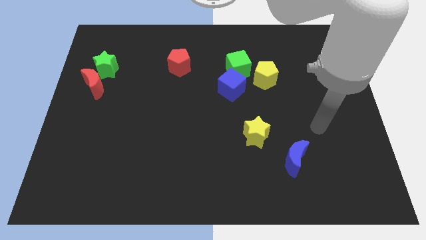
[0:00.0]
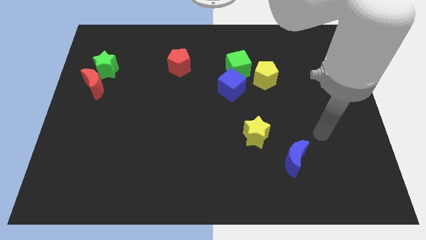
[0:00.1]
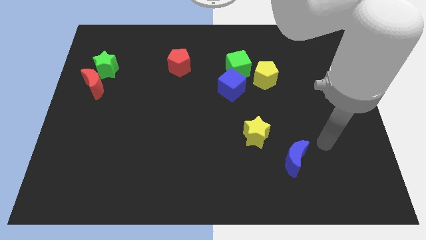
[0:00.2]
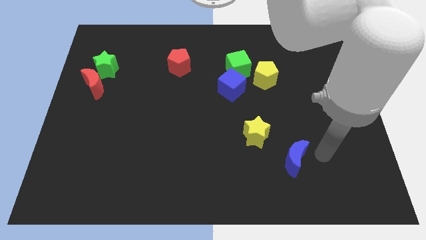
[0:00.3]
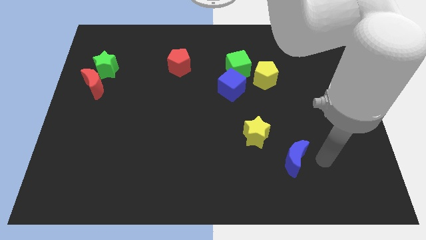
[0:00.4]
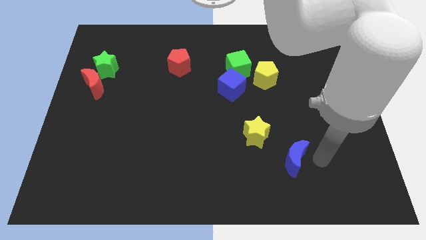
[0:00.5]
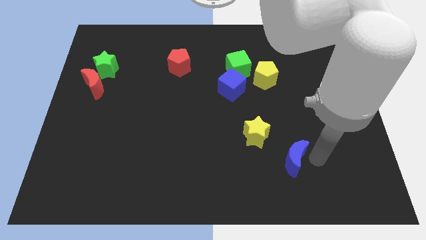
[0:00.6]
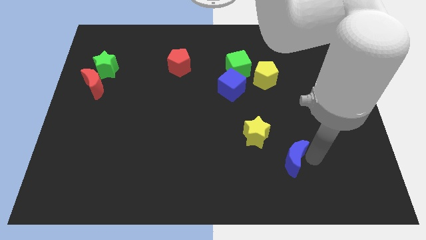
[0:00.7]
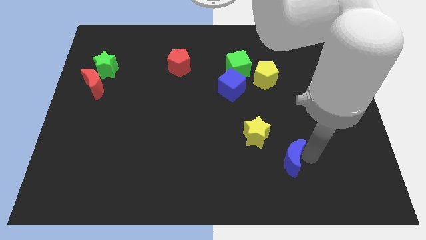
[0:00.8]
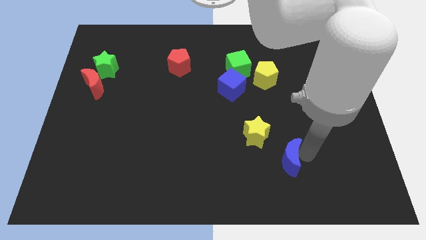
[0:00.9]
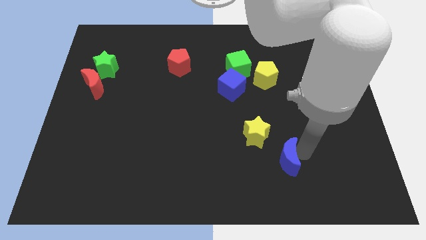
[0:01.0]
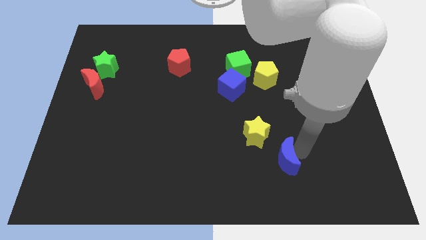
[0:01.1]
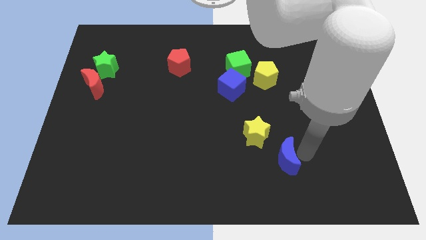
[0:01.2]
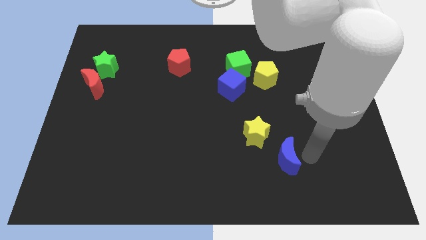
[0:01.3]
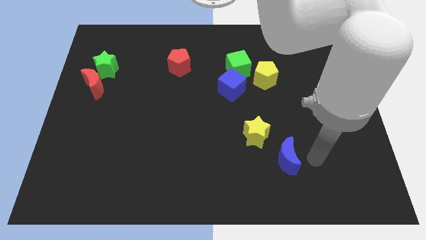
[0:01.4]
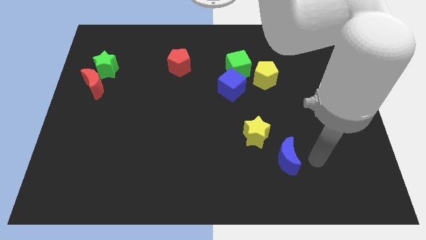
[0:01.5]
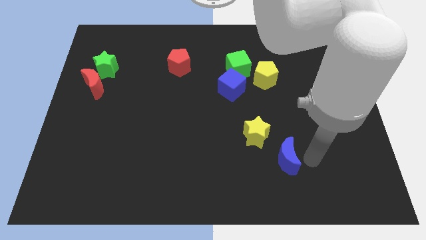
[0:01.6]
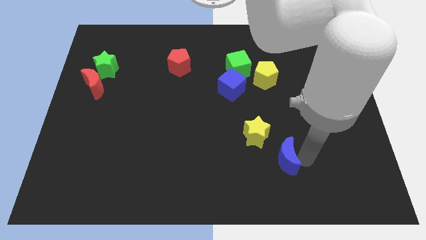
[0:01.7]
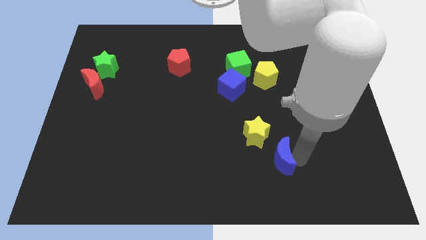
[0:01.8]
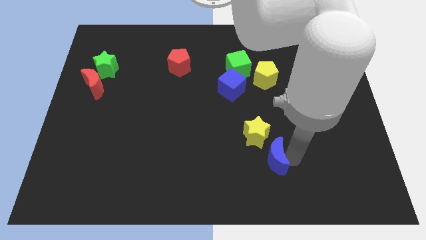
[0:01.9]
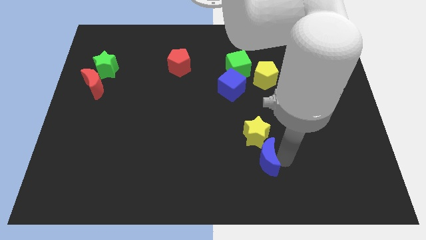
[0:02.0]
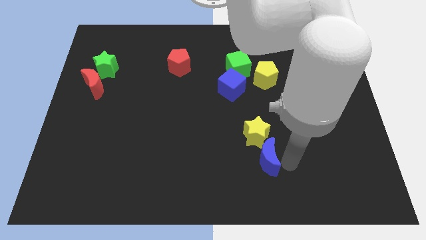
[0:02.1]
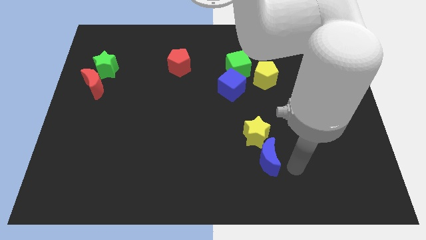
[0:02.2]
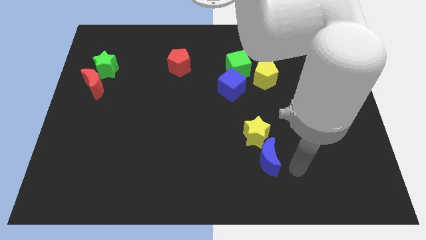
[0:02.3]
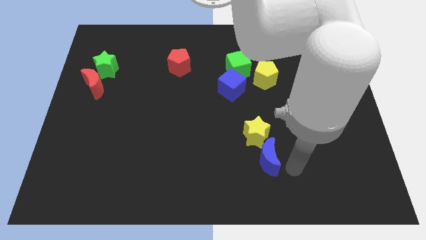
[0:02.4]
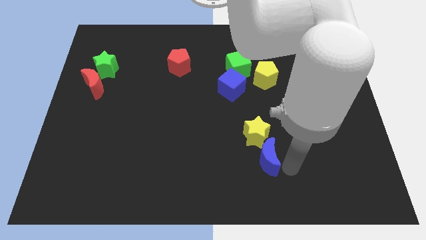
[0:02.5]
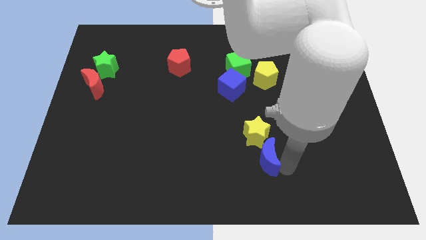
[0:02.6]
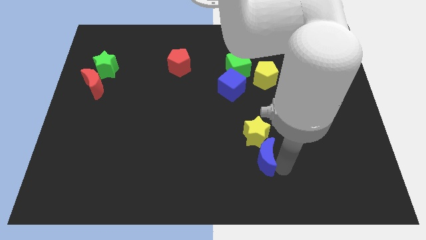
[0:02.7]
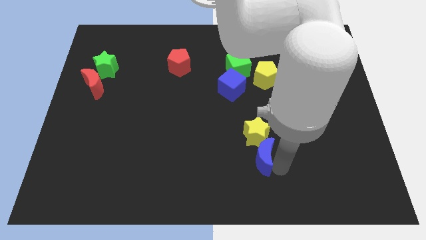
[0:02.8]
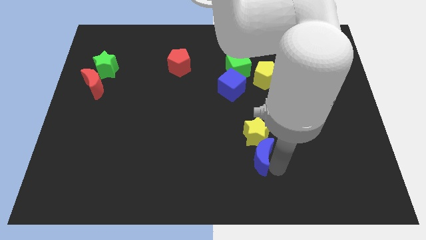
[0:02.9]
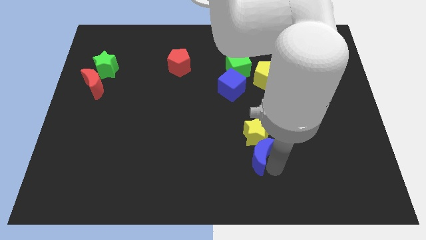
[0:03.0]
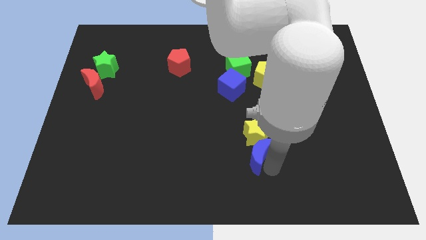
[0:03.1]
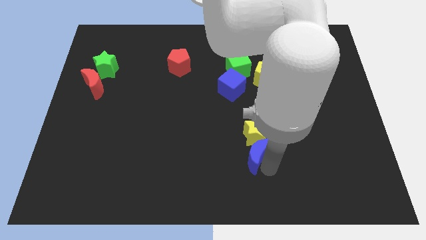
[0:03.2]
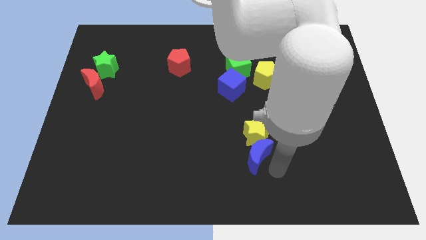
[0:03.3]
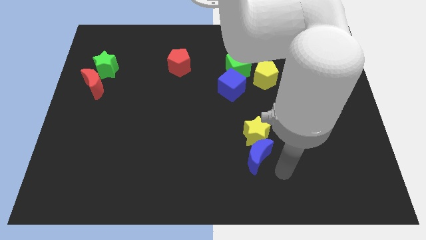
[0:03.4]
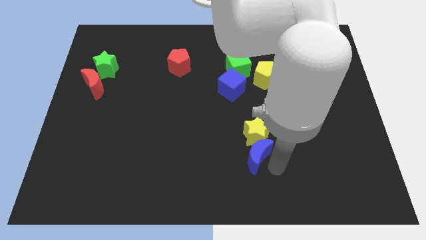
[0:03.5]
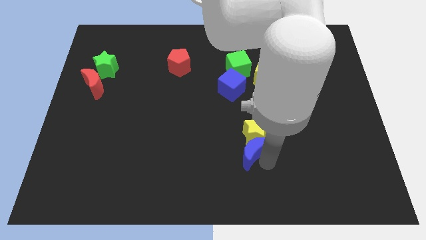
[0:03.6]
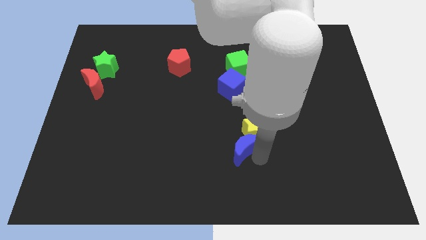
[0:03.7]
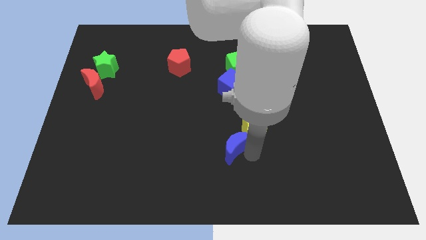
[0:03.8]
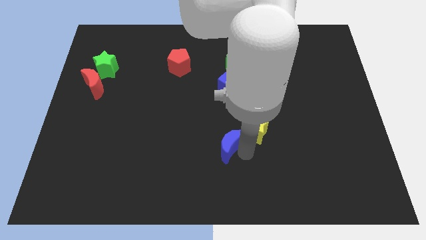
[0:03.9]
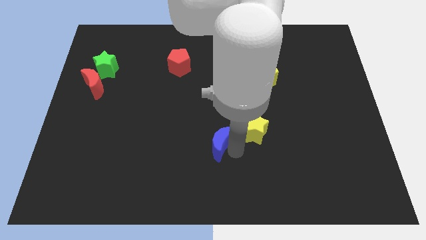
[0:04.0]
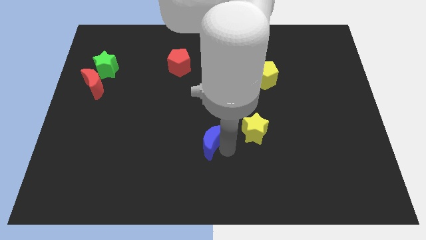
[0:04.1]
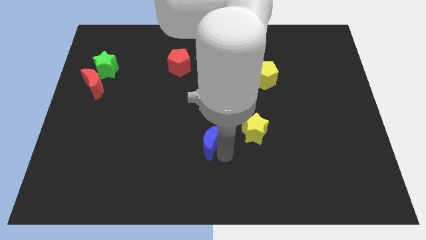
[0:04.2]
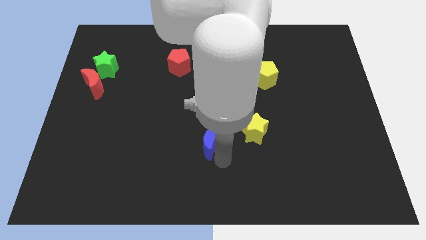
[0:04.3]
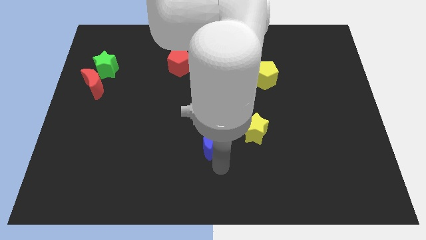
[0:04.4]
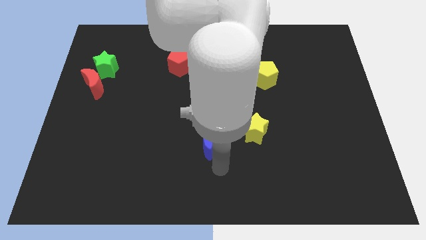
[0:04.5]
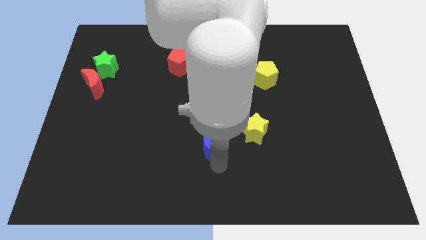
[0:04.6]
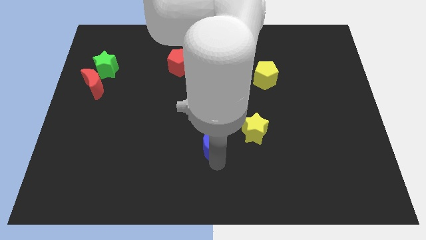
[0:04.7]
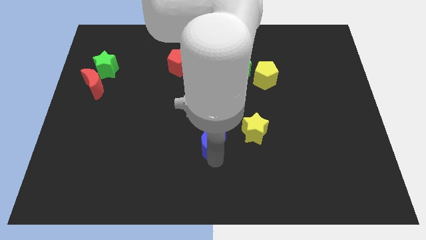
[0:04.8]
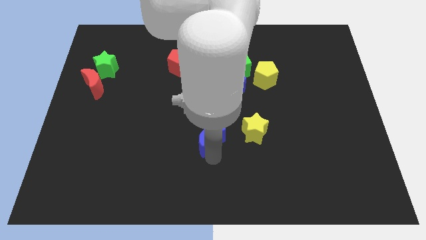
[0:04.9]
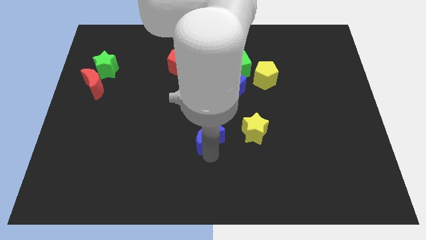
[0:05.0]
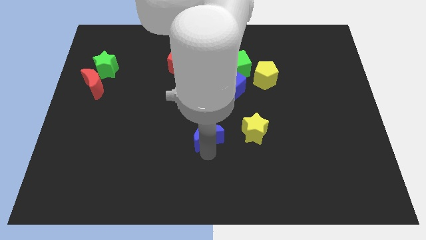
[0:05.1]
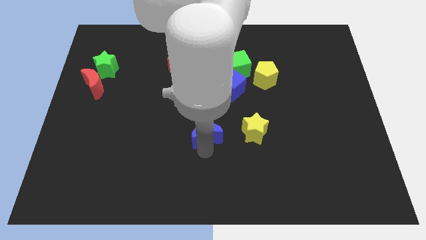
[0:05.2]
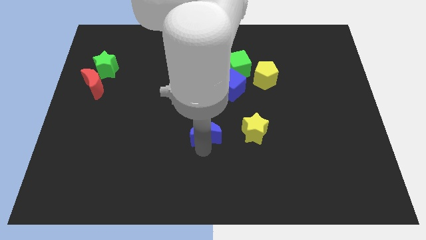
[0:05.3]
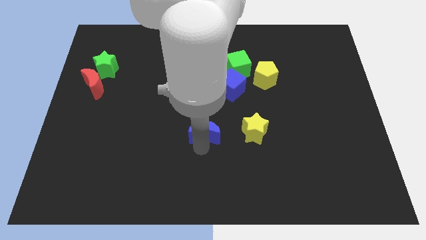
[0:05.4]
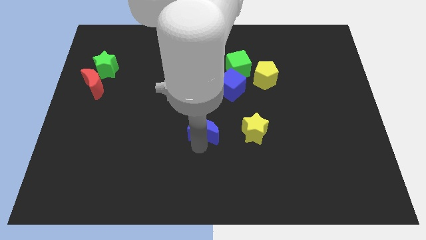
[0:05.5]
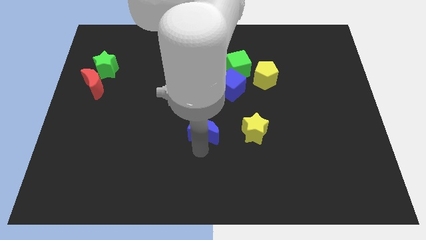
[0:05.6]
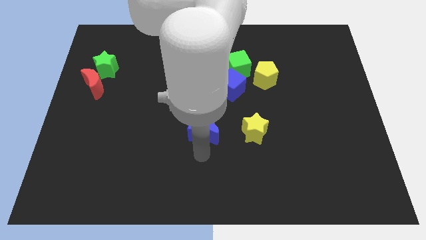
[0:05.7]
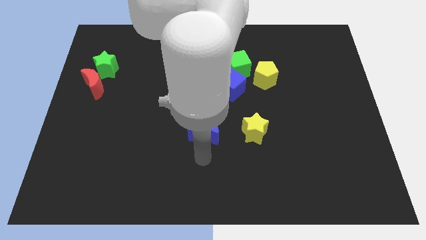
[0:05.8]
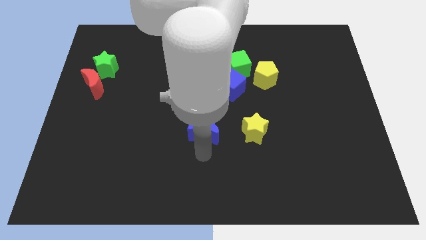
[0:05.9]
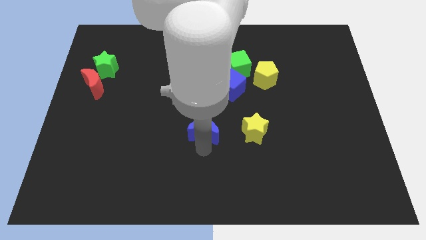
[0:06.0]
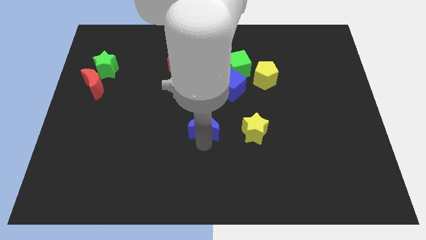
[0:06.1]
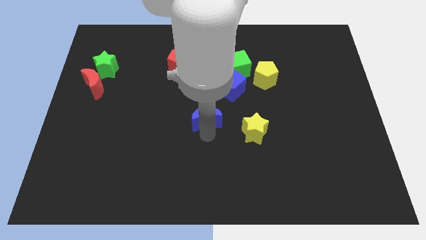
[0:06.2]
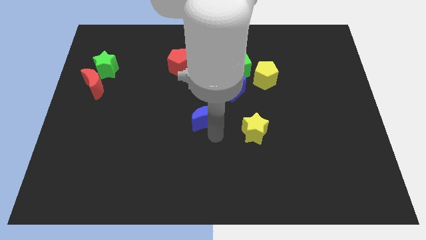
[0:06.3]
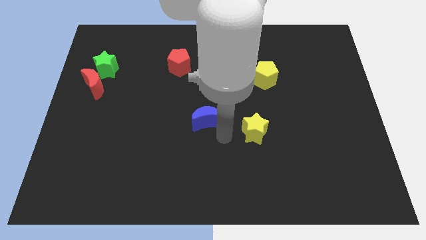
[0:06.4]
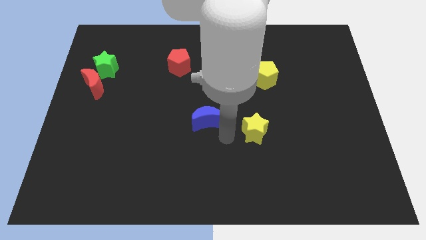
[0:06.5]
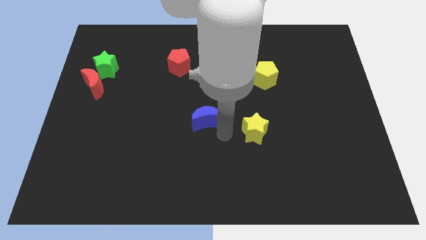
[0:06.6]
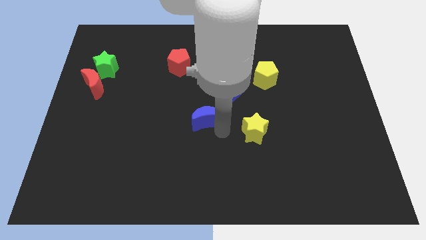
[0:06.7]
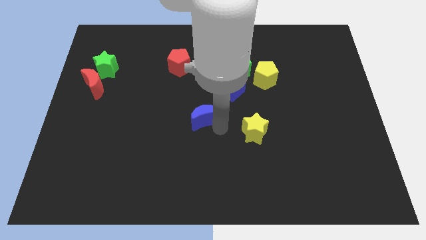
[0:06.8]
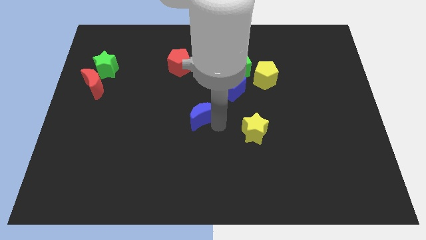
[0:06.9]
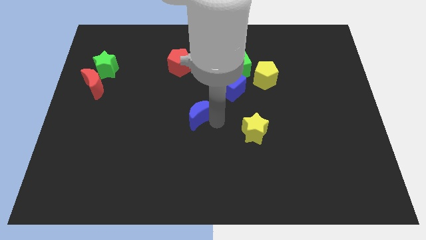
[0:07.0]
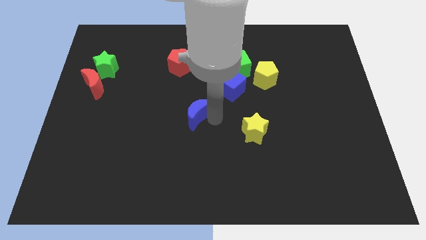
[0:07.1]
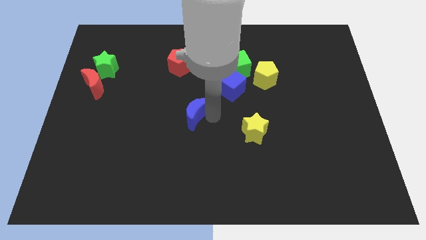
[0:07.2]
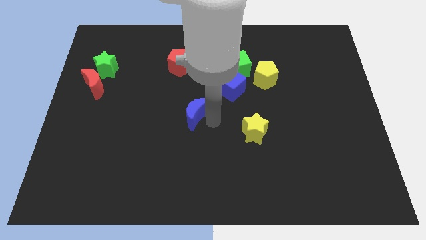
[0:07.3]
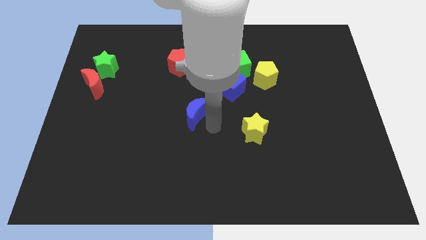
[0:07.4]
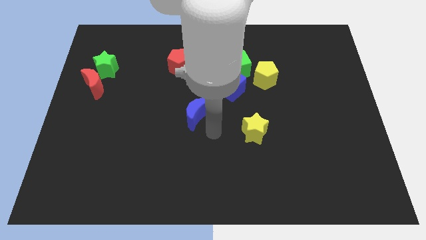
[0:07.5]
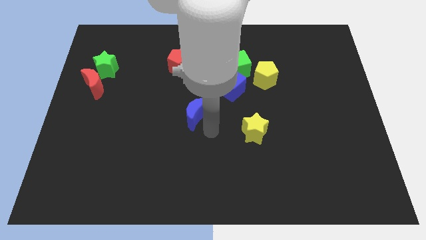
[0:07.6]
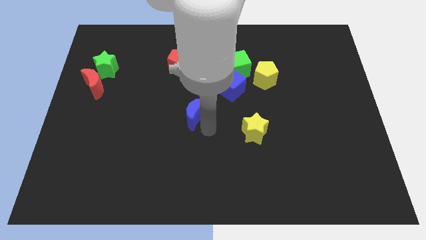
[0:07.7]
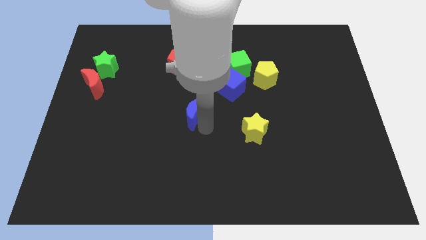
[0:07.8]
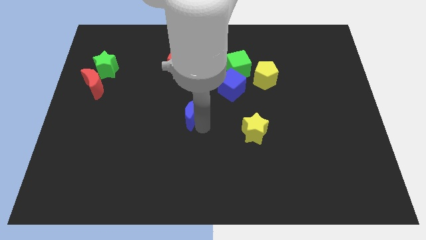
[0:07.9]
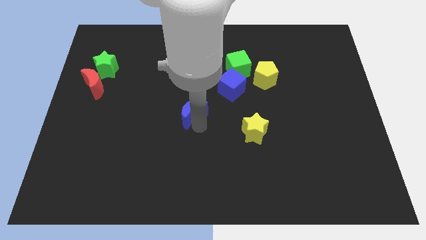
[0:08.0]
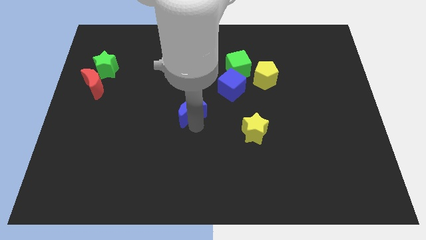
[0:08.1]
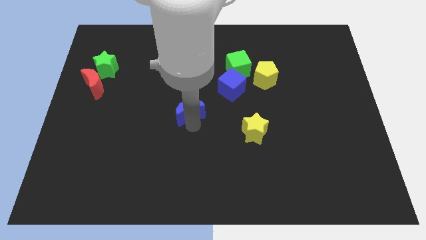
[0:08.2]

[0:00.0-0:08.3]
put the blue moon below the red pentagon
